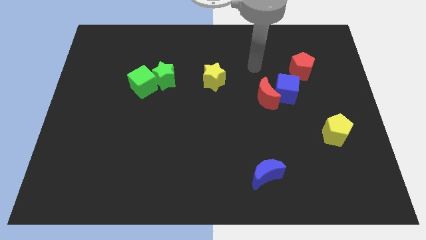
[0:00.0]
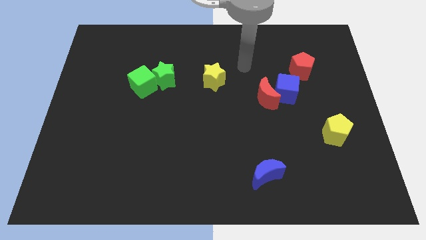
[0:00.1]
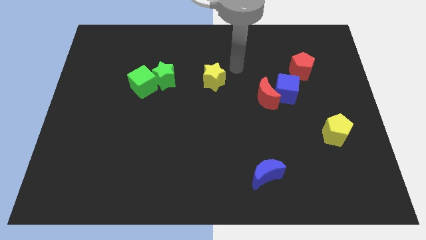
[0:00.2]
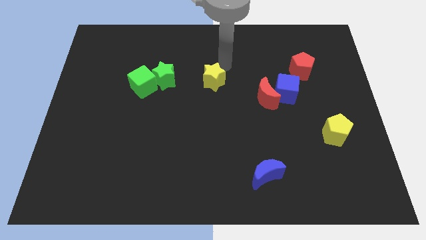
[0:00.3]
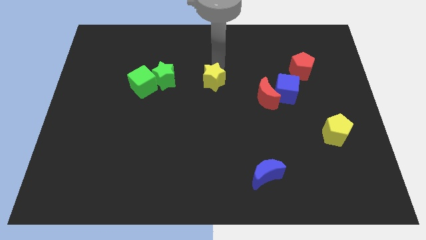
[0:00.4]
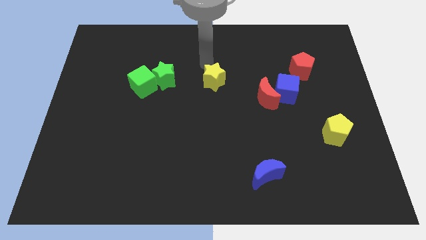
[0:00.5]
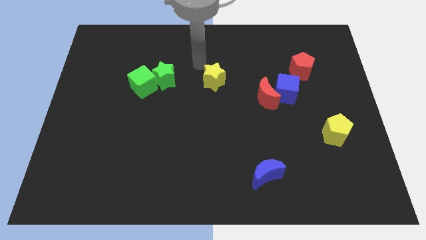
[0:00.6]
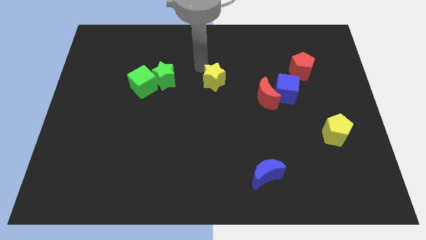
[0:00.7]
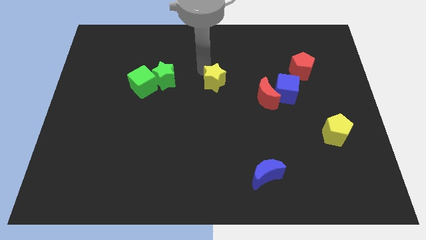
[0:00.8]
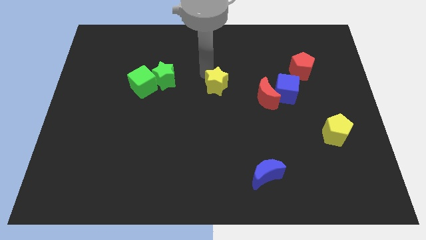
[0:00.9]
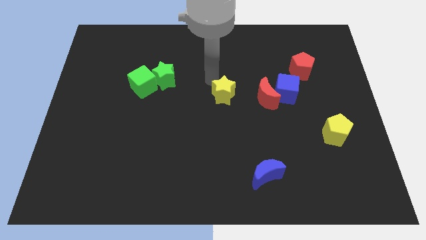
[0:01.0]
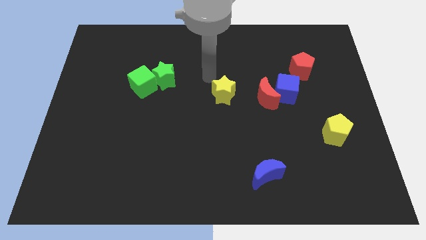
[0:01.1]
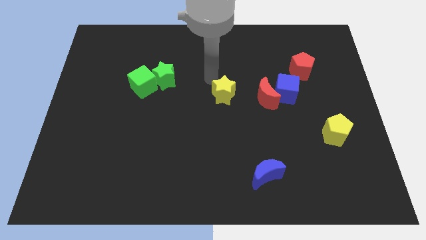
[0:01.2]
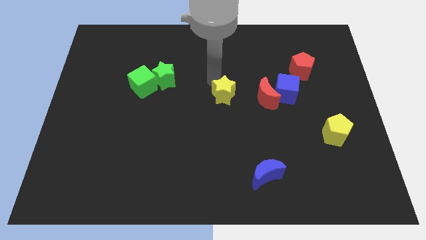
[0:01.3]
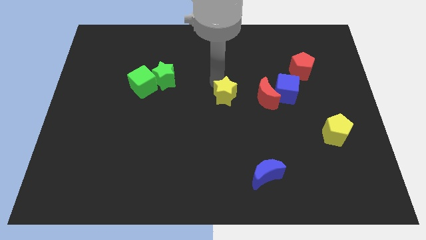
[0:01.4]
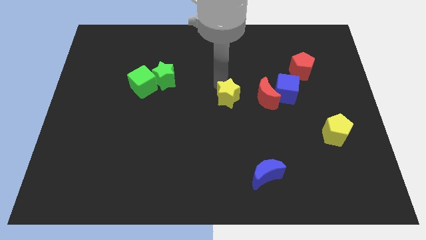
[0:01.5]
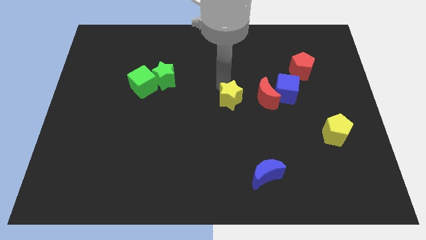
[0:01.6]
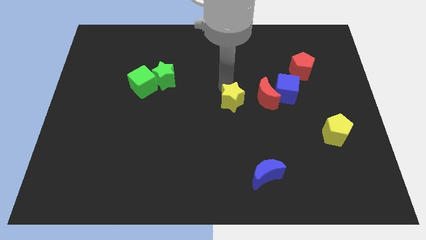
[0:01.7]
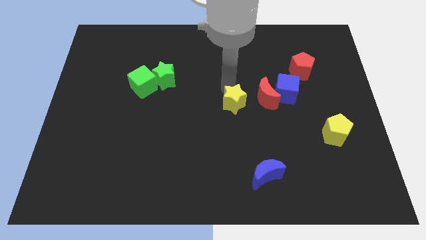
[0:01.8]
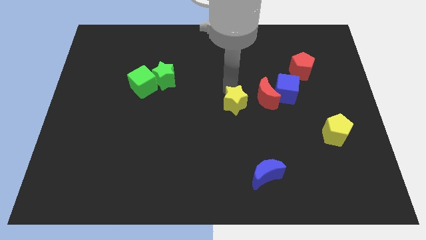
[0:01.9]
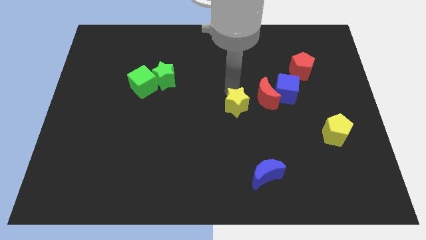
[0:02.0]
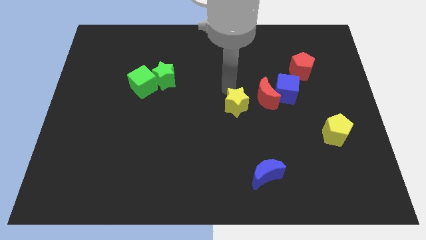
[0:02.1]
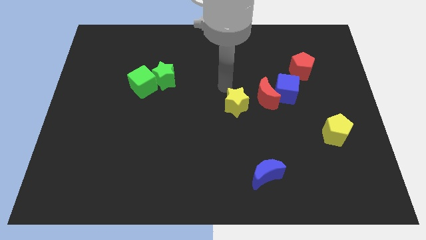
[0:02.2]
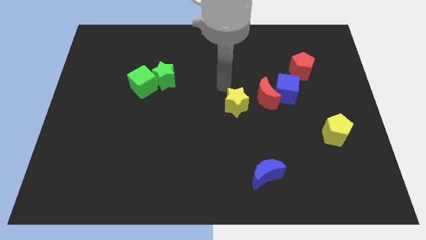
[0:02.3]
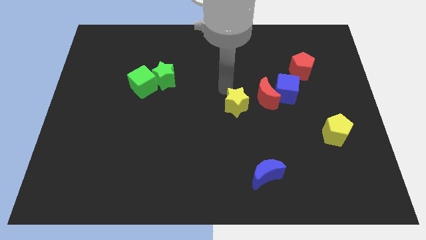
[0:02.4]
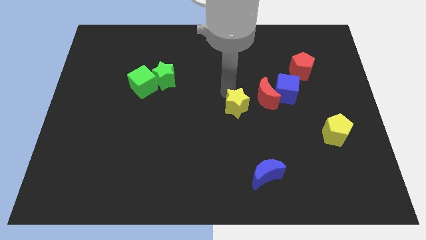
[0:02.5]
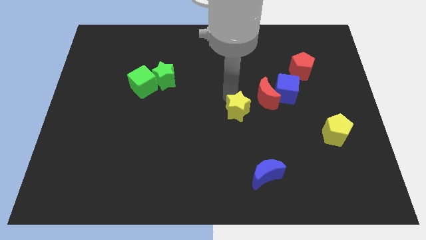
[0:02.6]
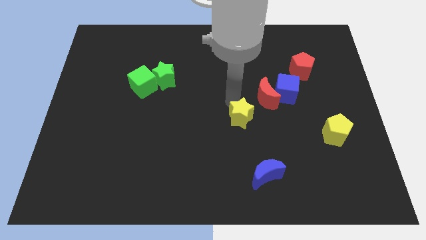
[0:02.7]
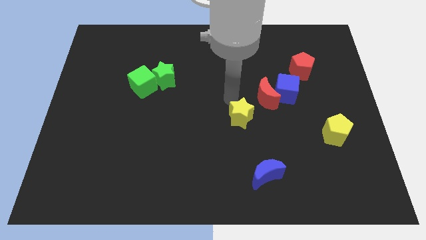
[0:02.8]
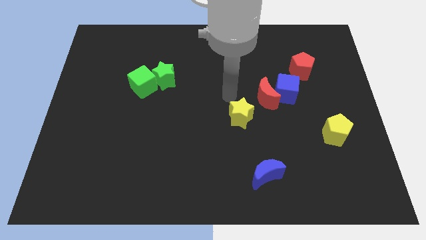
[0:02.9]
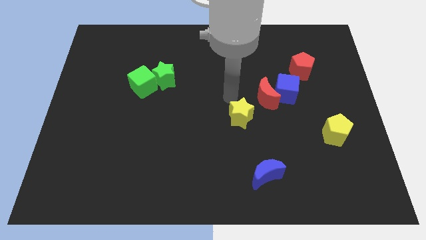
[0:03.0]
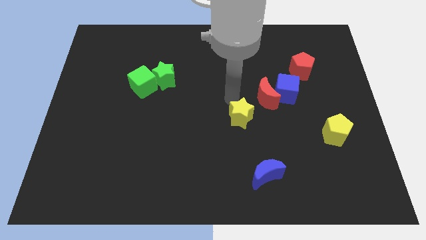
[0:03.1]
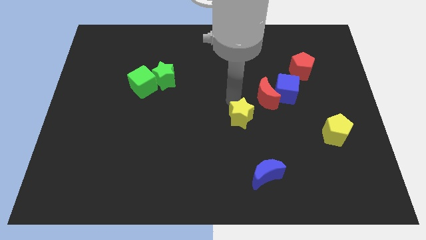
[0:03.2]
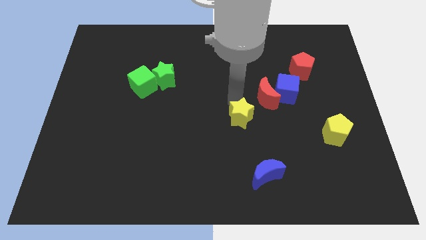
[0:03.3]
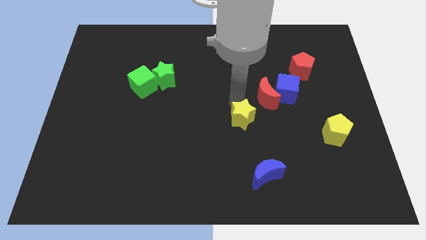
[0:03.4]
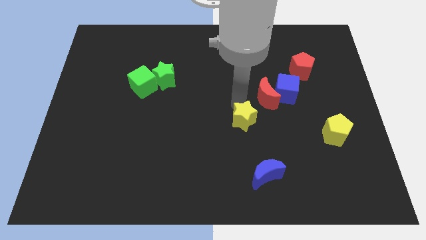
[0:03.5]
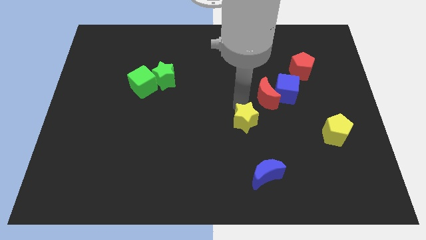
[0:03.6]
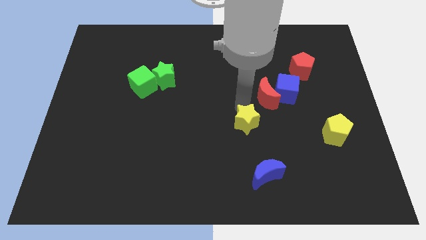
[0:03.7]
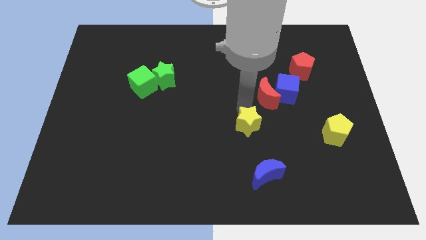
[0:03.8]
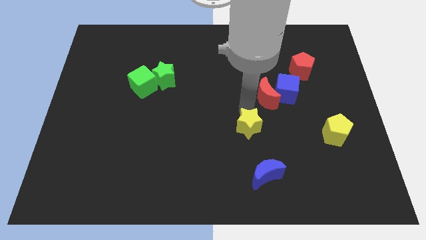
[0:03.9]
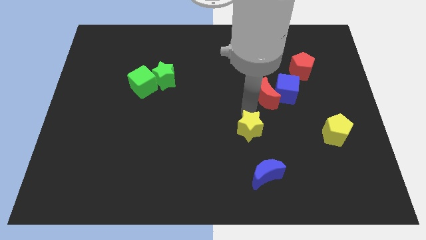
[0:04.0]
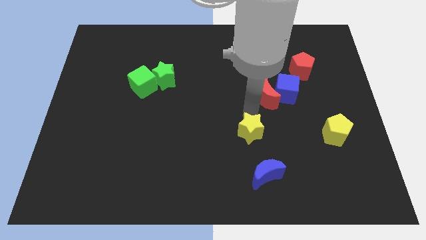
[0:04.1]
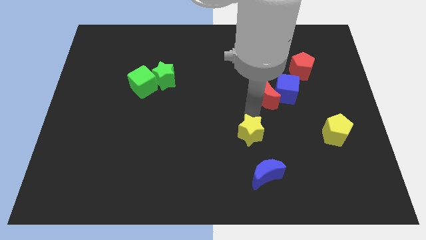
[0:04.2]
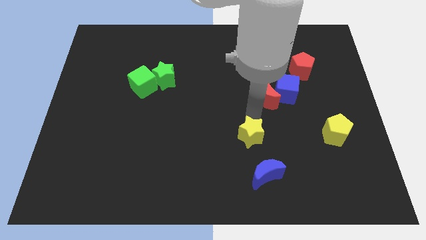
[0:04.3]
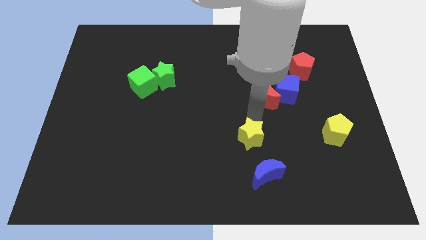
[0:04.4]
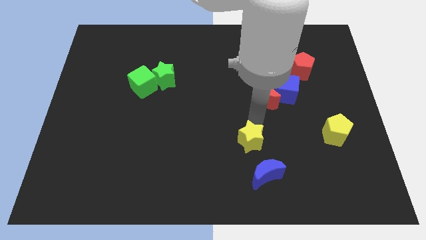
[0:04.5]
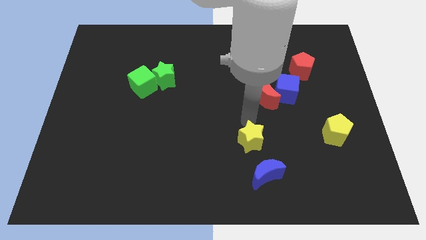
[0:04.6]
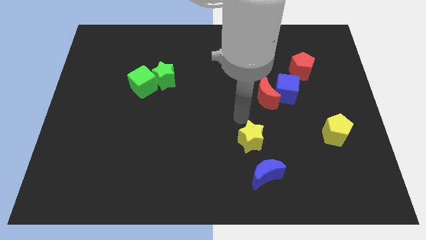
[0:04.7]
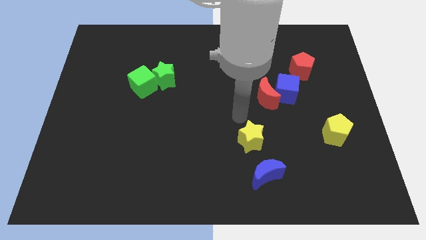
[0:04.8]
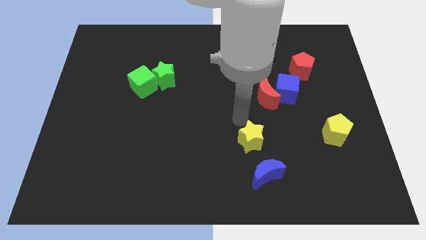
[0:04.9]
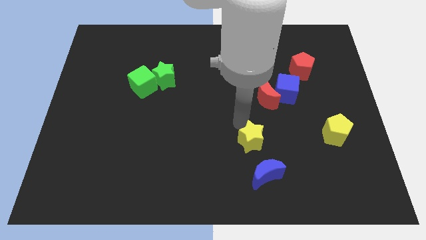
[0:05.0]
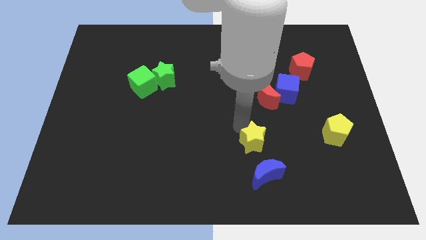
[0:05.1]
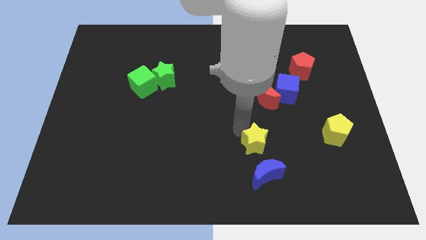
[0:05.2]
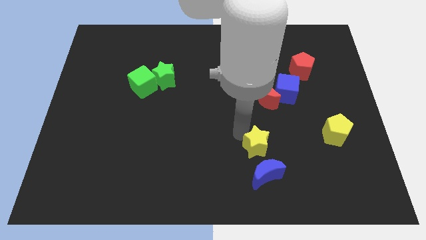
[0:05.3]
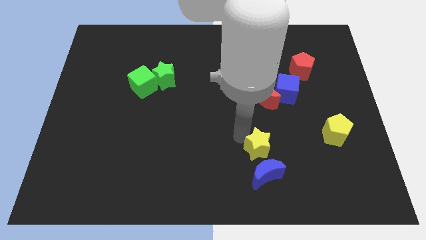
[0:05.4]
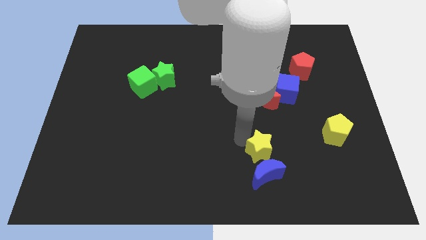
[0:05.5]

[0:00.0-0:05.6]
put the yellow star to the blue moon

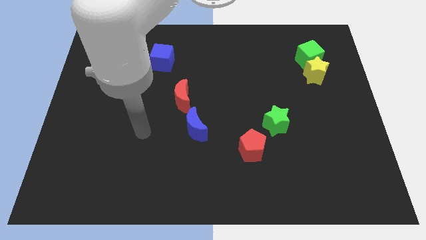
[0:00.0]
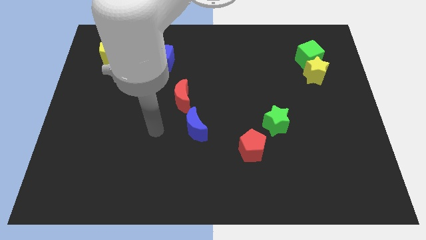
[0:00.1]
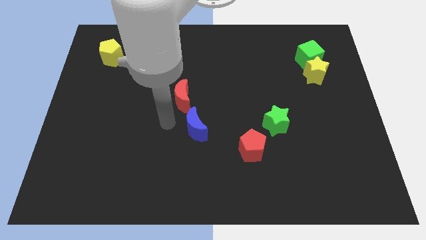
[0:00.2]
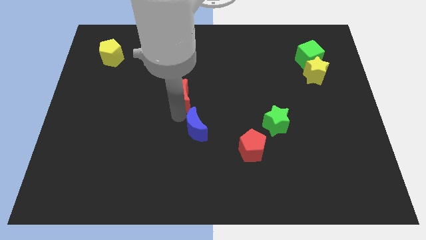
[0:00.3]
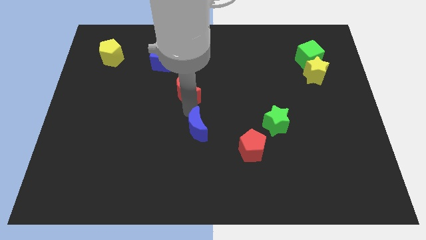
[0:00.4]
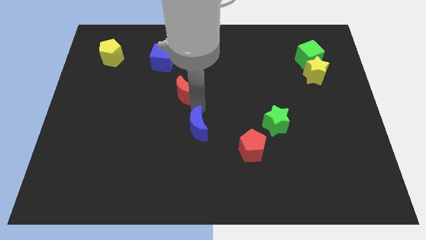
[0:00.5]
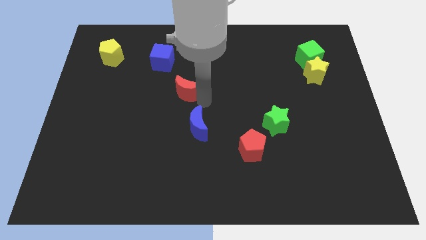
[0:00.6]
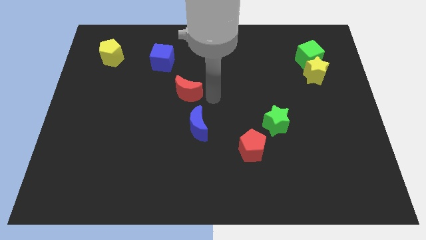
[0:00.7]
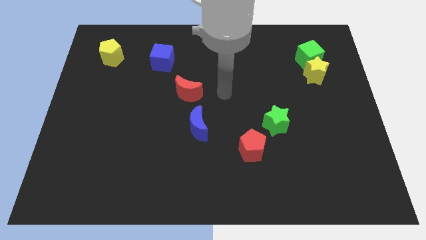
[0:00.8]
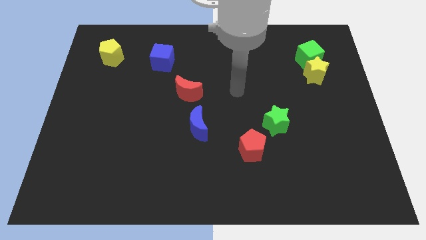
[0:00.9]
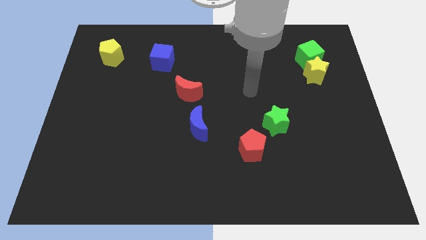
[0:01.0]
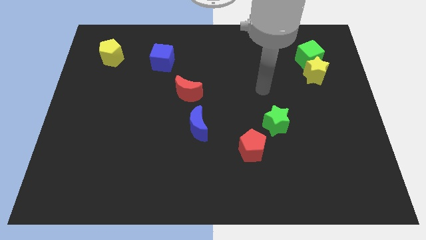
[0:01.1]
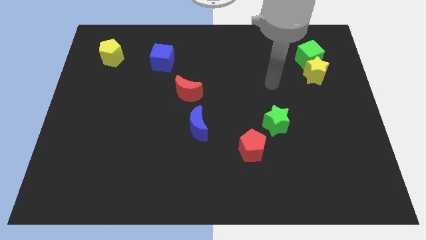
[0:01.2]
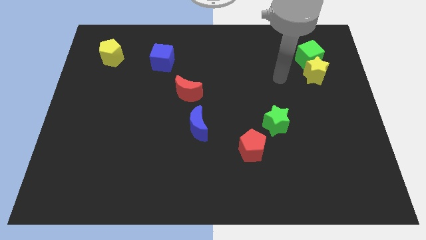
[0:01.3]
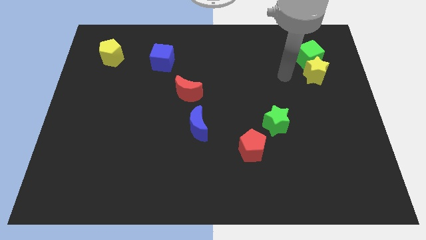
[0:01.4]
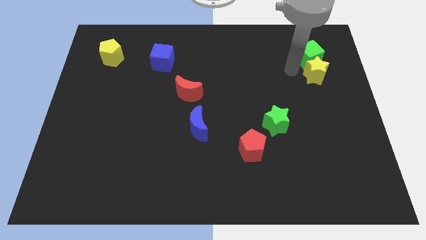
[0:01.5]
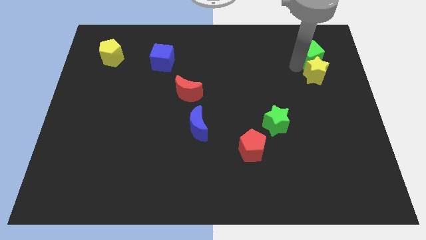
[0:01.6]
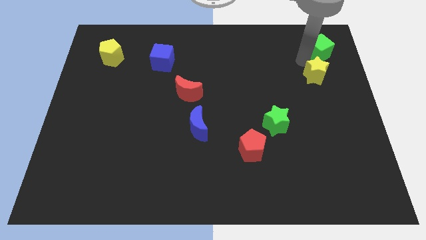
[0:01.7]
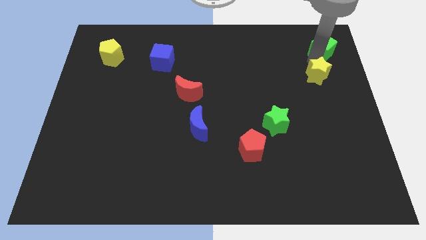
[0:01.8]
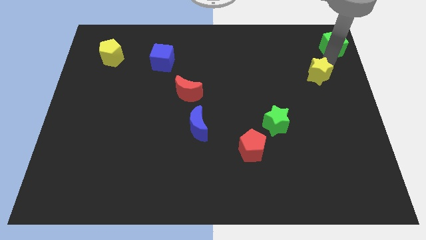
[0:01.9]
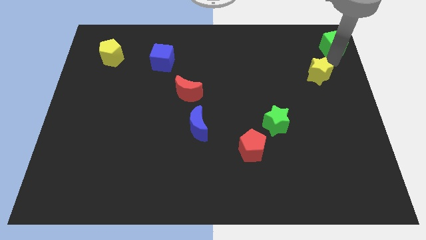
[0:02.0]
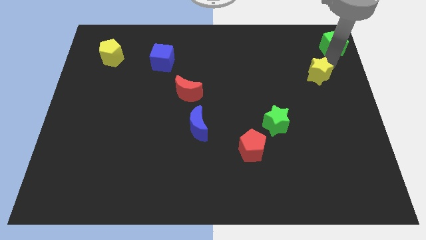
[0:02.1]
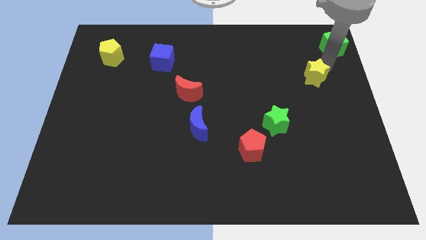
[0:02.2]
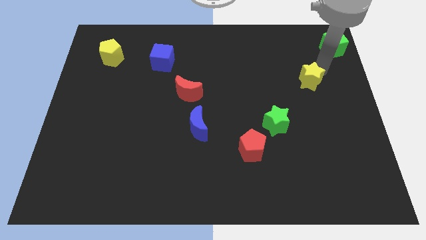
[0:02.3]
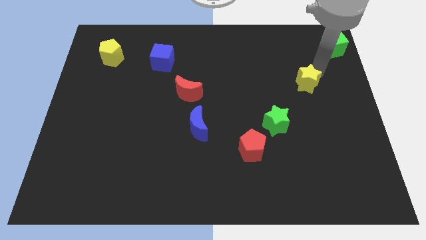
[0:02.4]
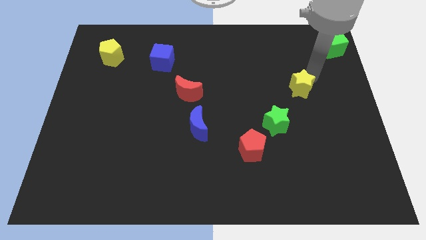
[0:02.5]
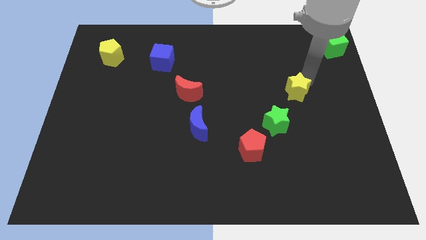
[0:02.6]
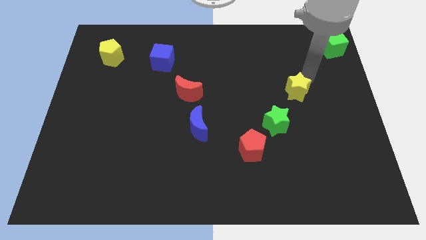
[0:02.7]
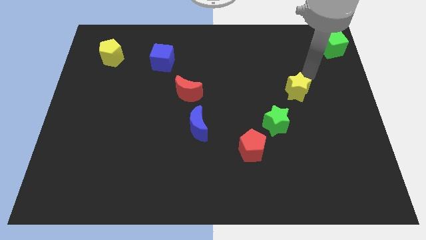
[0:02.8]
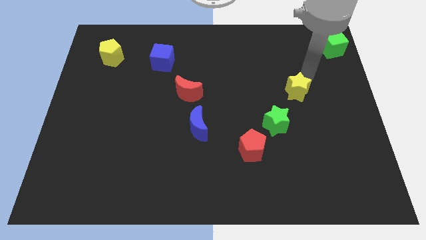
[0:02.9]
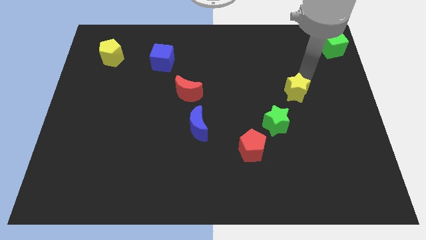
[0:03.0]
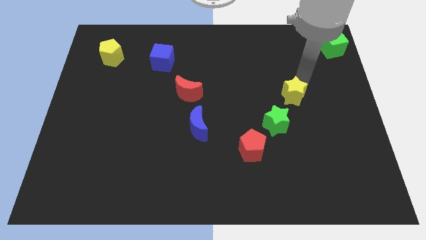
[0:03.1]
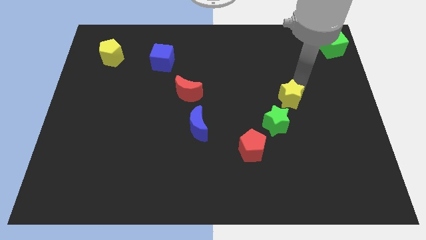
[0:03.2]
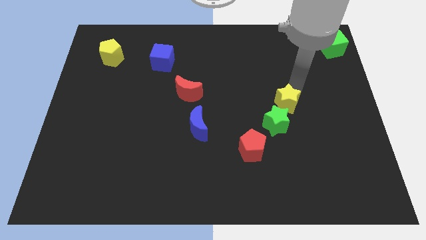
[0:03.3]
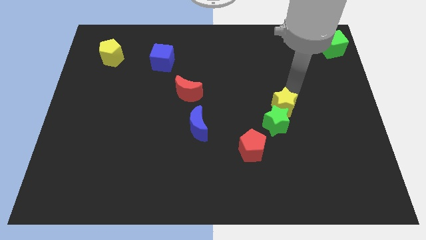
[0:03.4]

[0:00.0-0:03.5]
push the yellow star close to the green star
